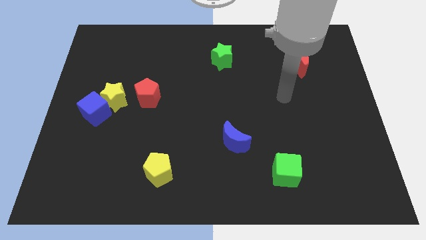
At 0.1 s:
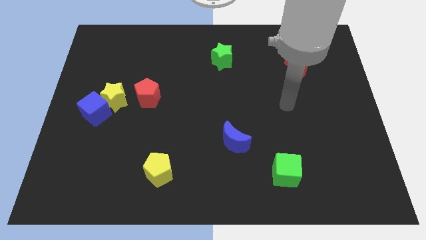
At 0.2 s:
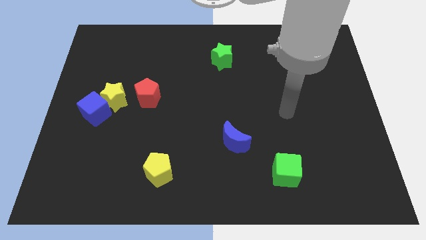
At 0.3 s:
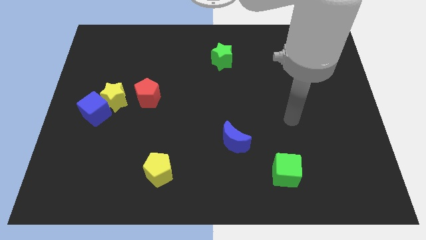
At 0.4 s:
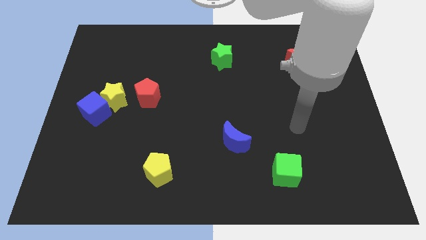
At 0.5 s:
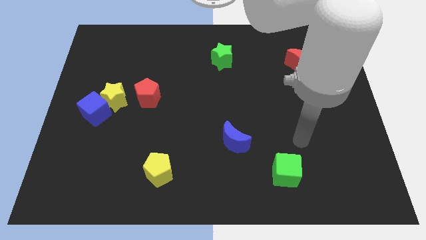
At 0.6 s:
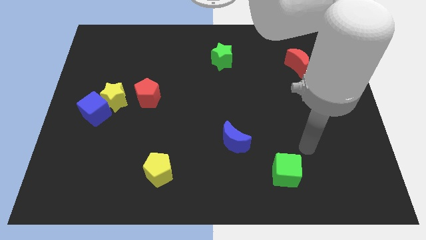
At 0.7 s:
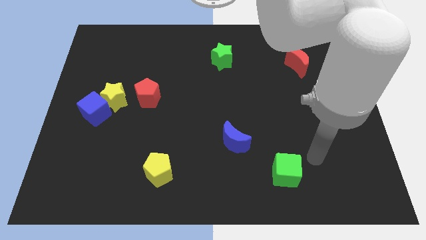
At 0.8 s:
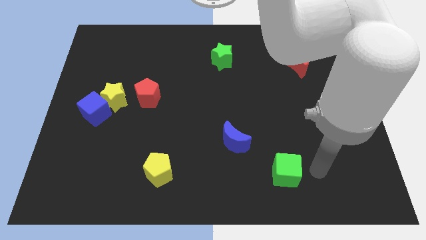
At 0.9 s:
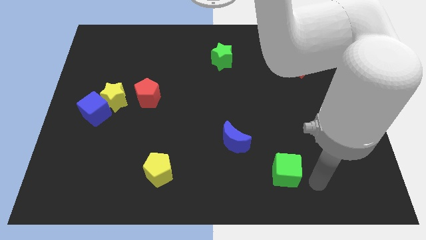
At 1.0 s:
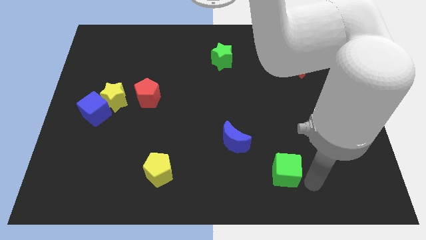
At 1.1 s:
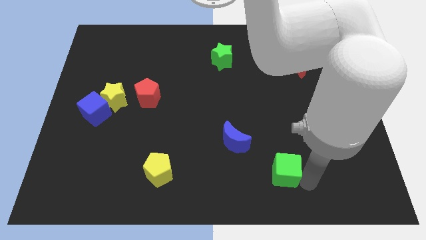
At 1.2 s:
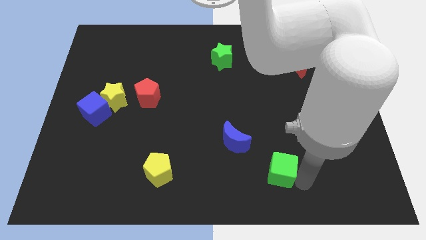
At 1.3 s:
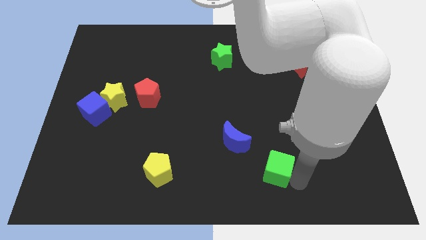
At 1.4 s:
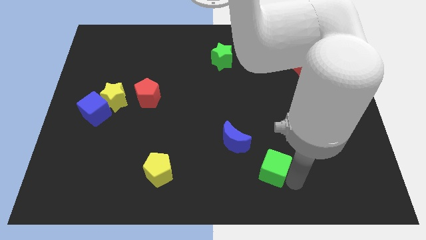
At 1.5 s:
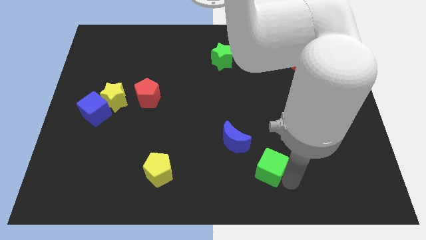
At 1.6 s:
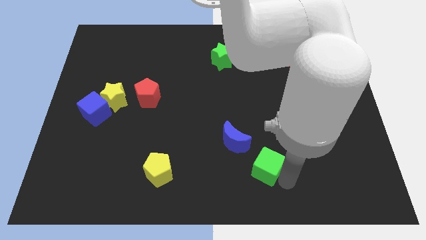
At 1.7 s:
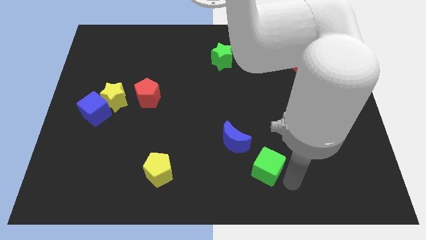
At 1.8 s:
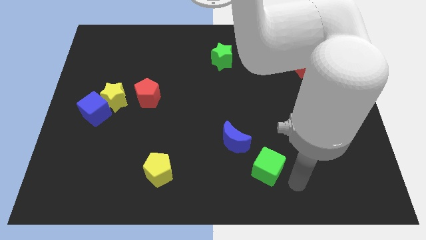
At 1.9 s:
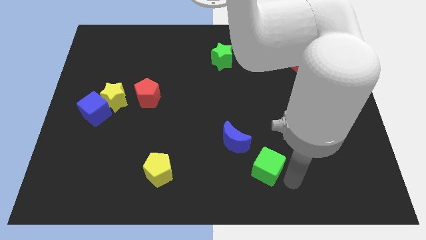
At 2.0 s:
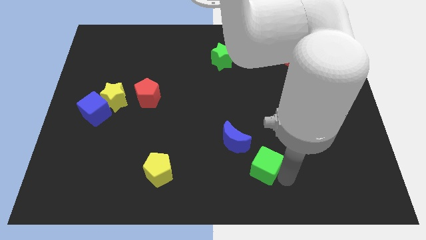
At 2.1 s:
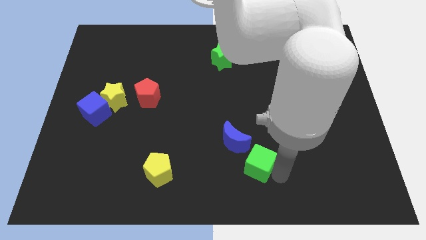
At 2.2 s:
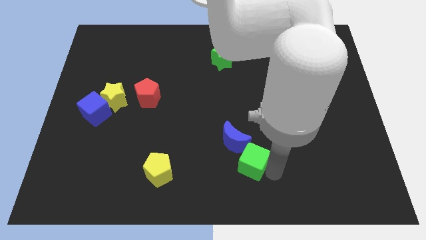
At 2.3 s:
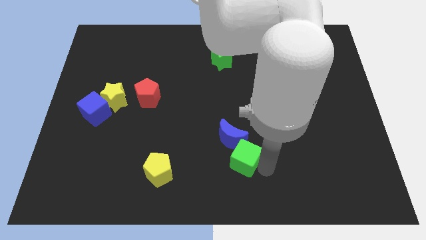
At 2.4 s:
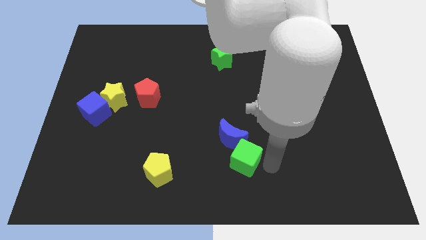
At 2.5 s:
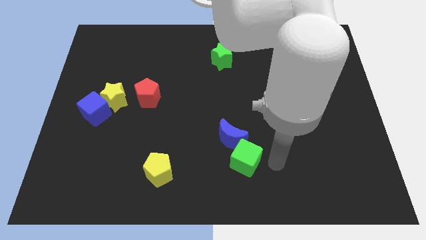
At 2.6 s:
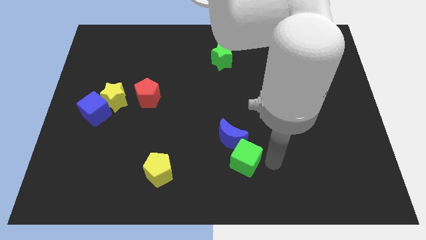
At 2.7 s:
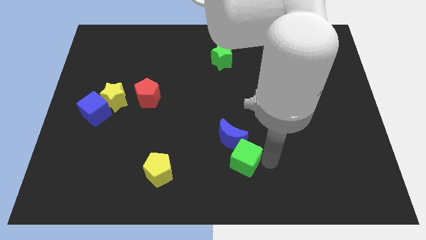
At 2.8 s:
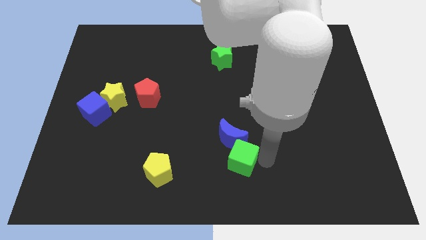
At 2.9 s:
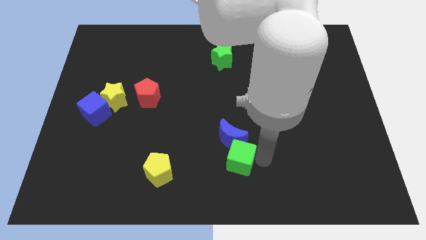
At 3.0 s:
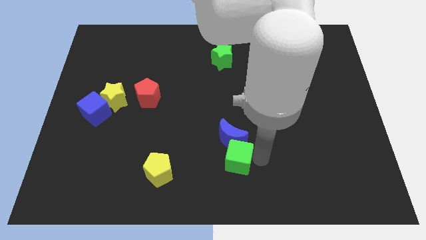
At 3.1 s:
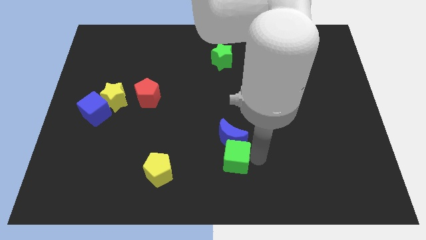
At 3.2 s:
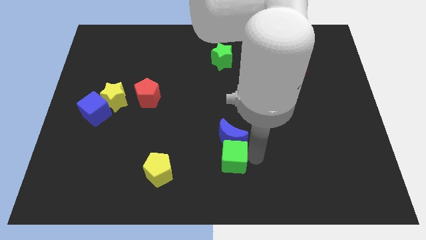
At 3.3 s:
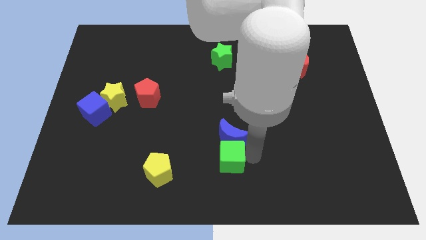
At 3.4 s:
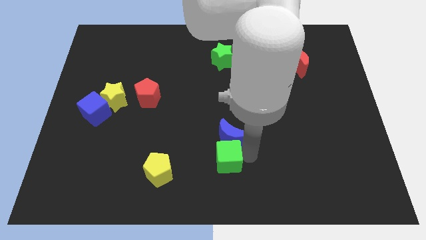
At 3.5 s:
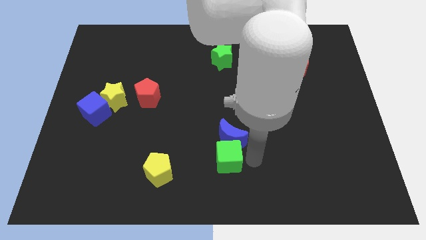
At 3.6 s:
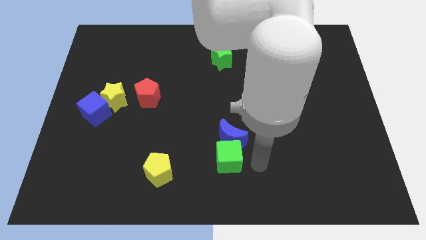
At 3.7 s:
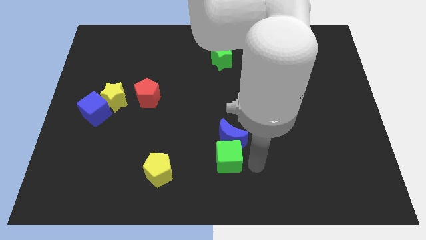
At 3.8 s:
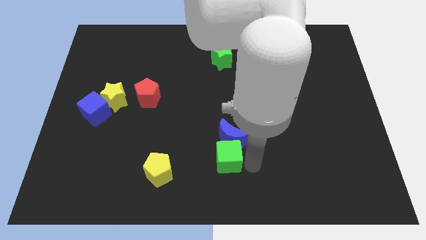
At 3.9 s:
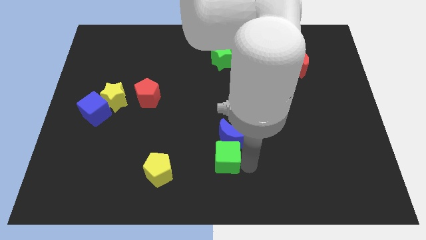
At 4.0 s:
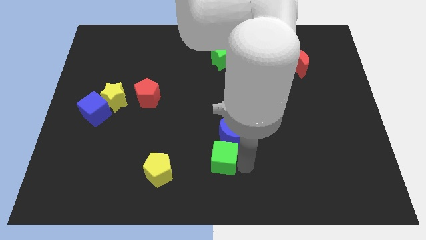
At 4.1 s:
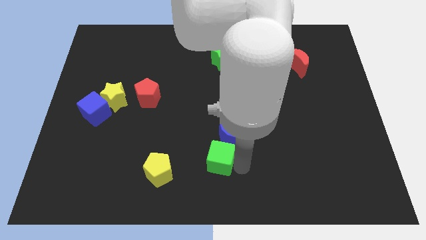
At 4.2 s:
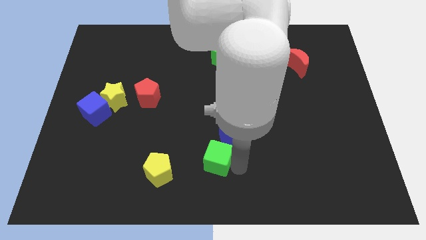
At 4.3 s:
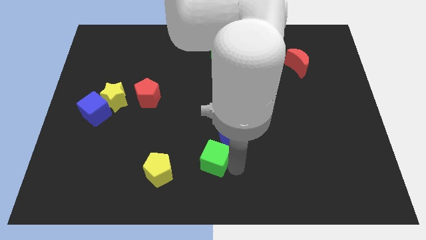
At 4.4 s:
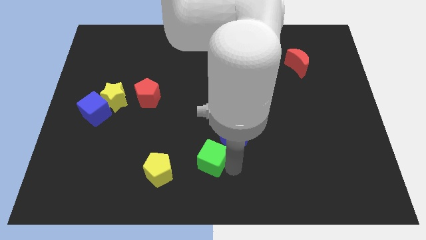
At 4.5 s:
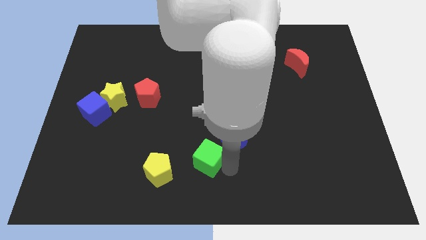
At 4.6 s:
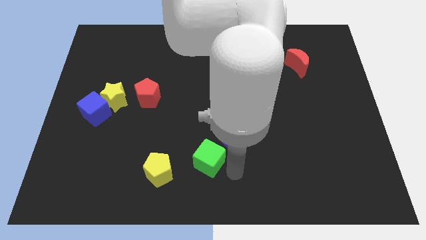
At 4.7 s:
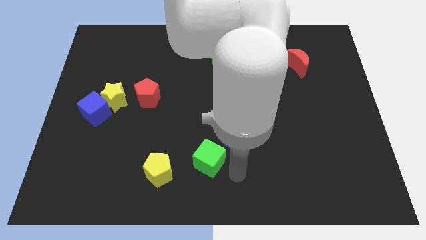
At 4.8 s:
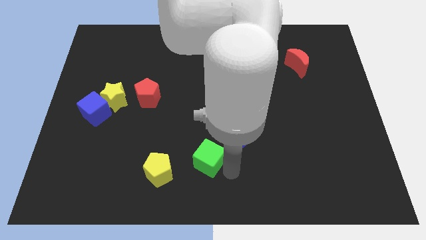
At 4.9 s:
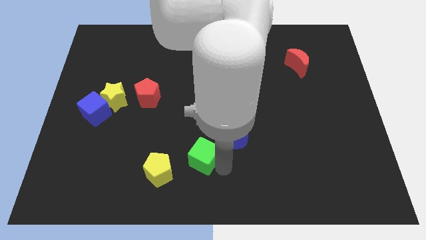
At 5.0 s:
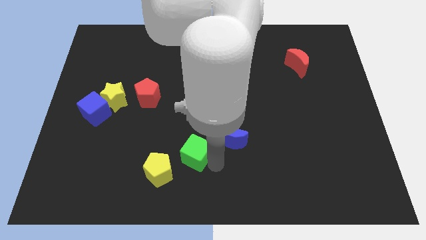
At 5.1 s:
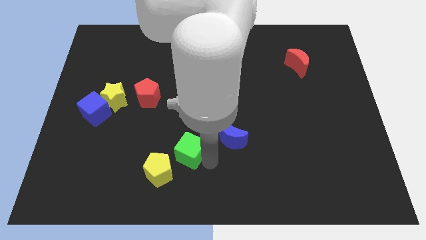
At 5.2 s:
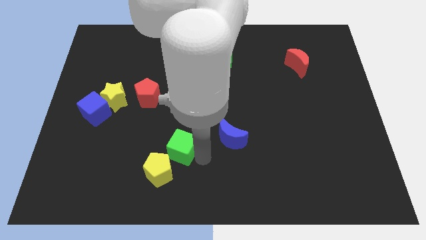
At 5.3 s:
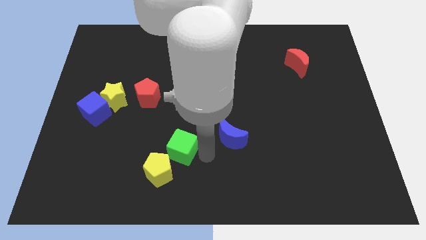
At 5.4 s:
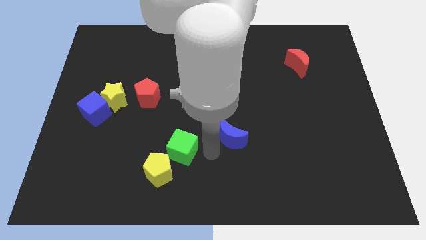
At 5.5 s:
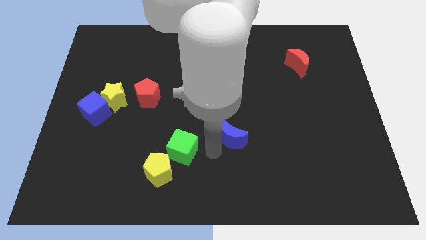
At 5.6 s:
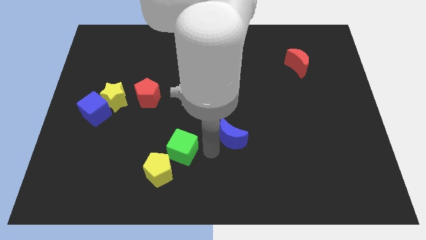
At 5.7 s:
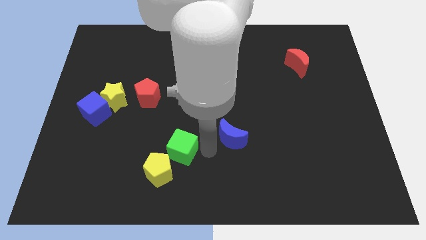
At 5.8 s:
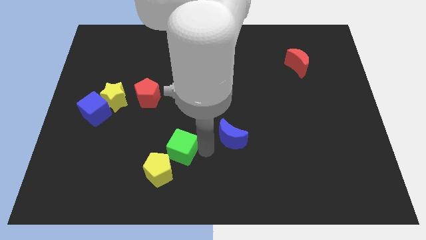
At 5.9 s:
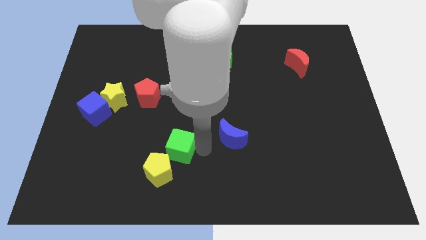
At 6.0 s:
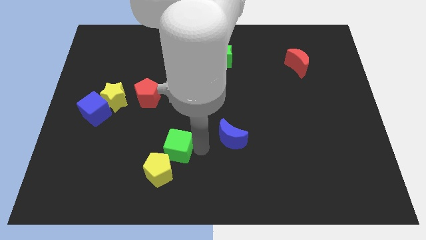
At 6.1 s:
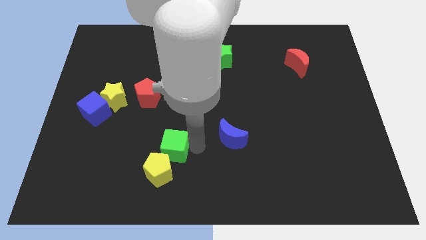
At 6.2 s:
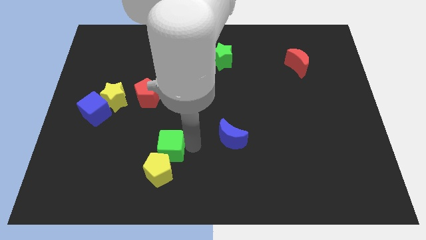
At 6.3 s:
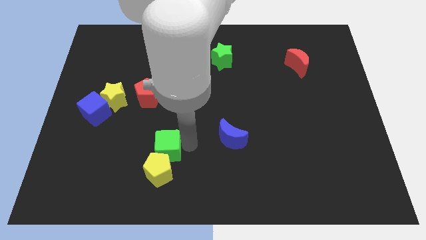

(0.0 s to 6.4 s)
move the green cube to the top left side of the yellow pentagon

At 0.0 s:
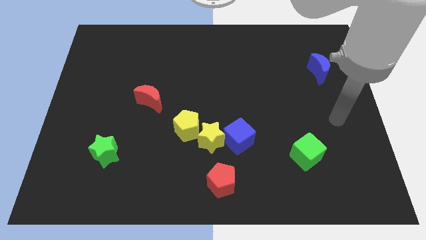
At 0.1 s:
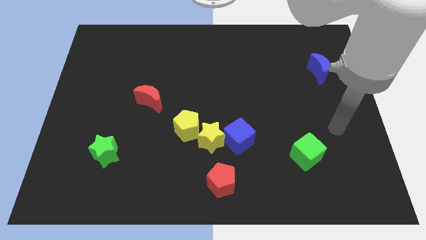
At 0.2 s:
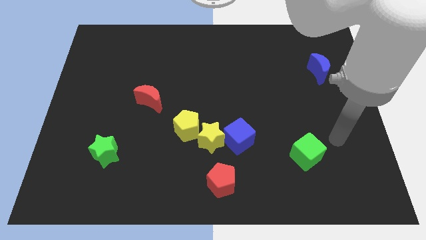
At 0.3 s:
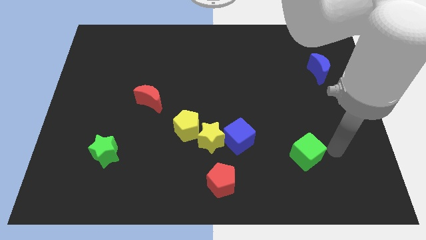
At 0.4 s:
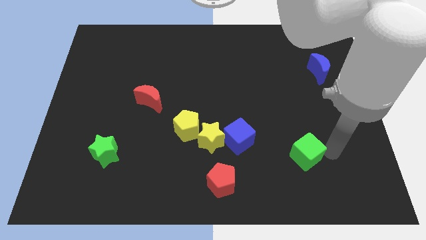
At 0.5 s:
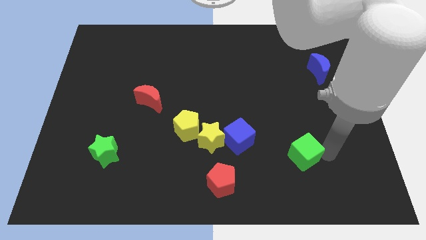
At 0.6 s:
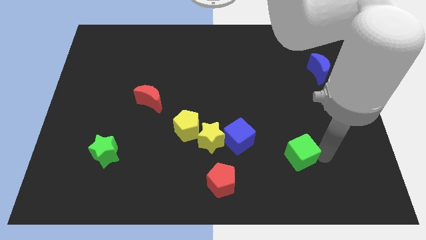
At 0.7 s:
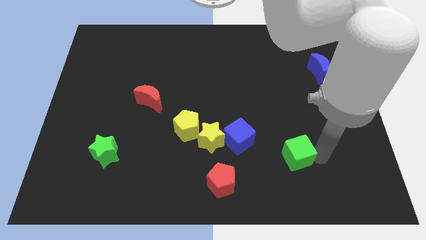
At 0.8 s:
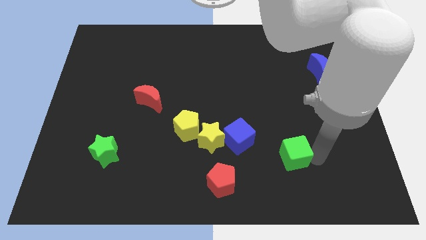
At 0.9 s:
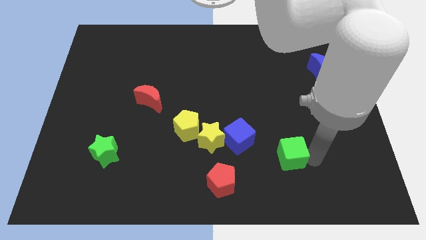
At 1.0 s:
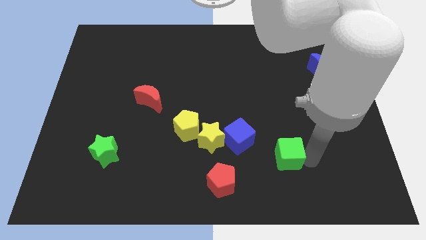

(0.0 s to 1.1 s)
move the green cube to the bottom right side of the blue cube
